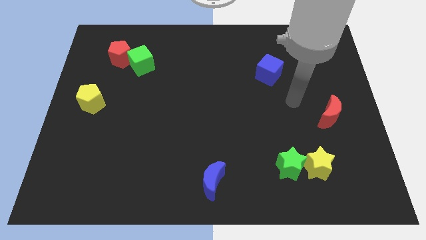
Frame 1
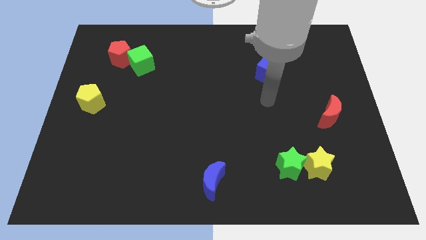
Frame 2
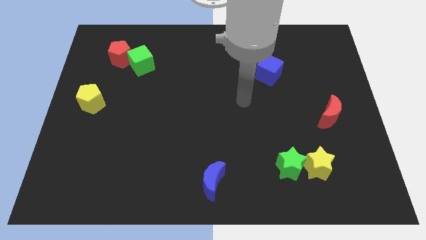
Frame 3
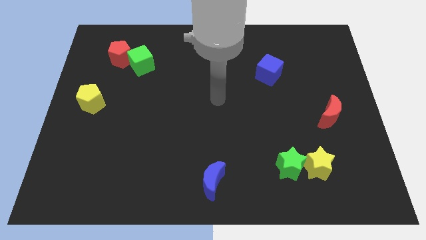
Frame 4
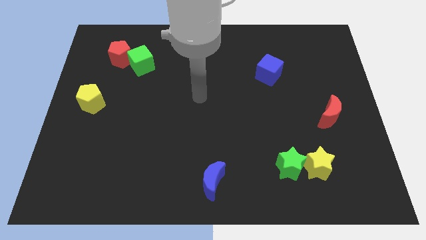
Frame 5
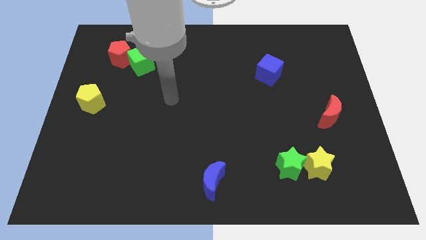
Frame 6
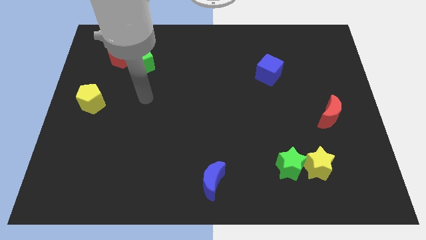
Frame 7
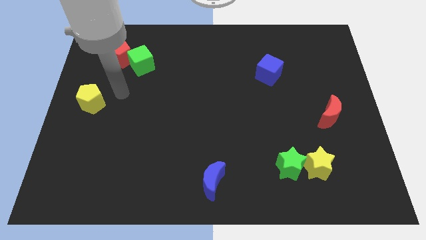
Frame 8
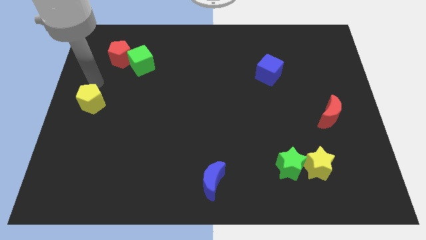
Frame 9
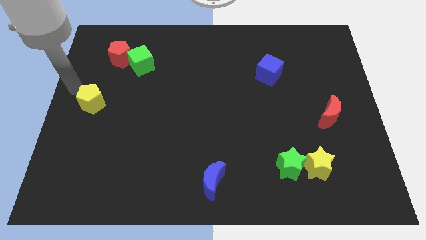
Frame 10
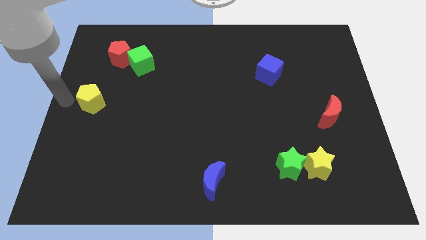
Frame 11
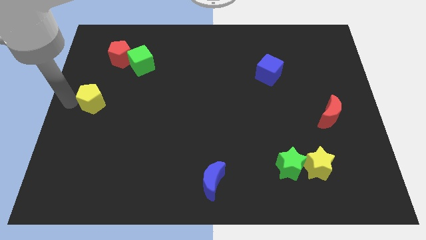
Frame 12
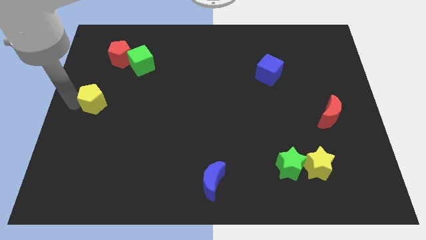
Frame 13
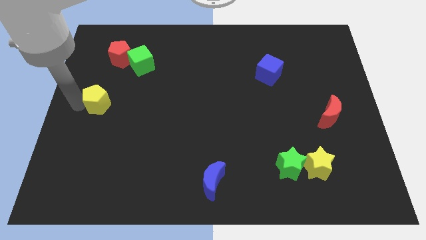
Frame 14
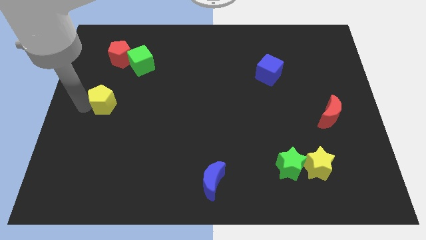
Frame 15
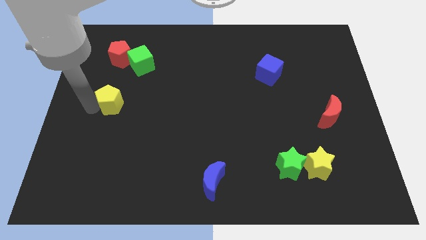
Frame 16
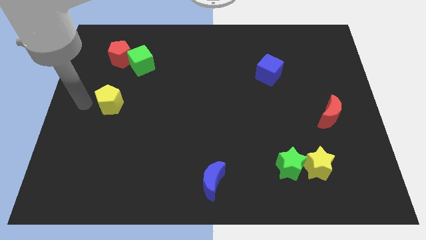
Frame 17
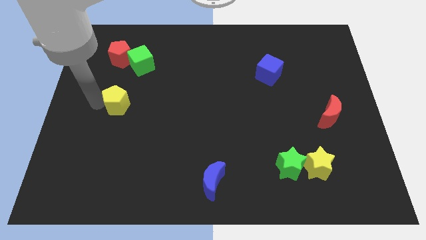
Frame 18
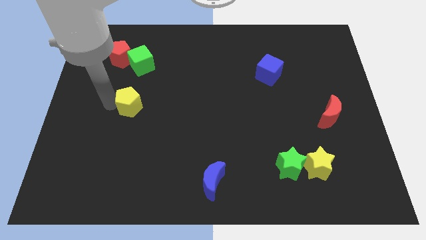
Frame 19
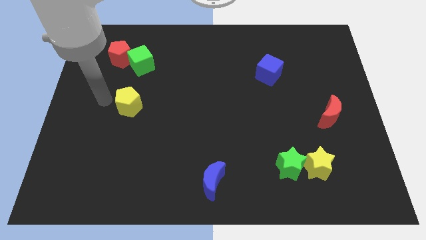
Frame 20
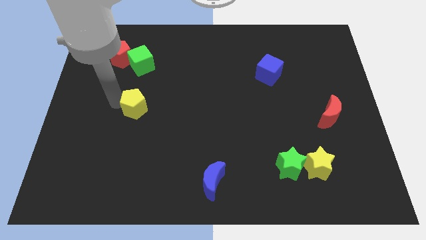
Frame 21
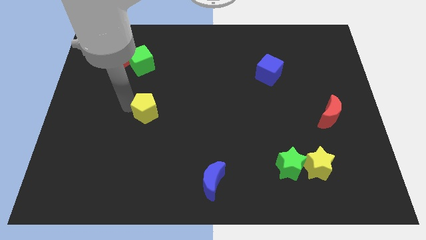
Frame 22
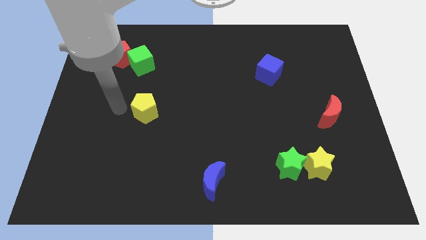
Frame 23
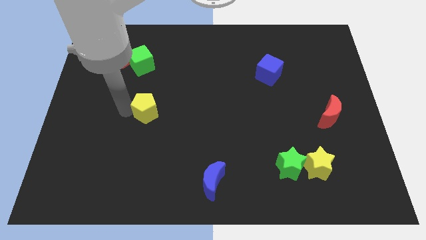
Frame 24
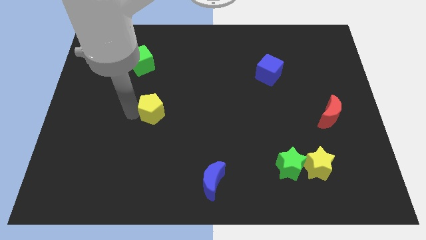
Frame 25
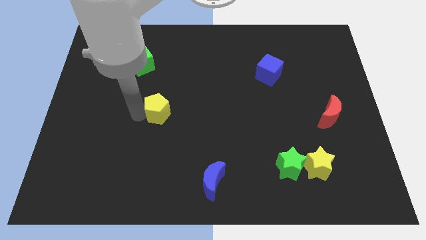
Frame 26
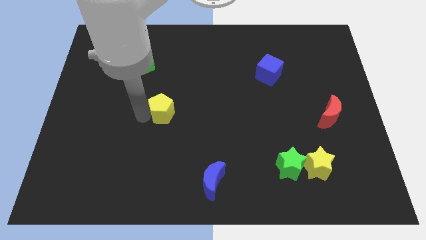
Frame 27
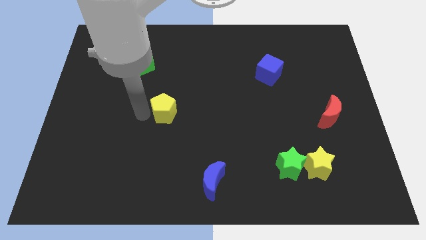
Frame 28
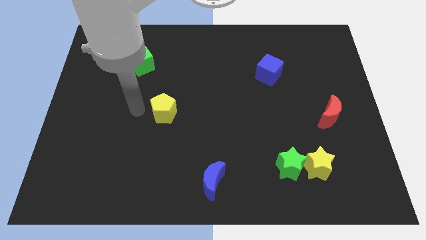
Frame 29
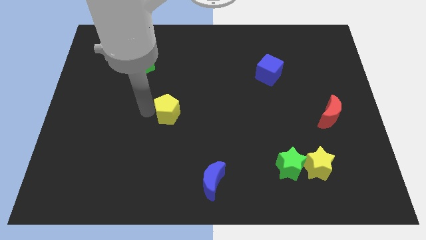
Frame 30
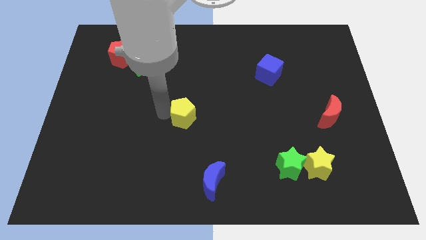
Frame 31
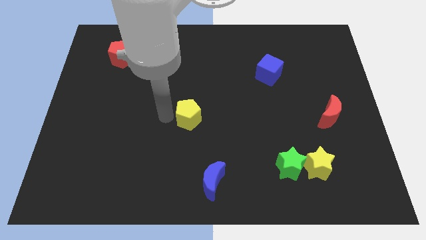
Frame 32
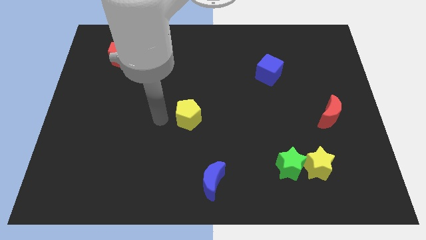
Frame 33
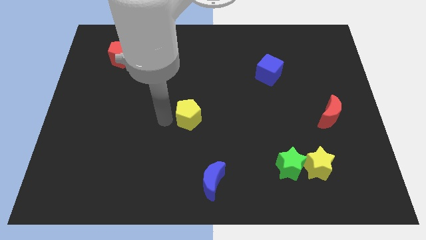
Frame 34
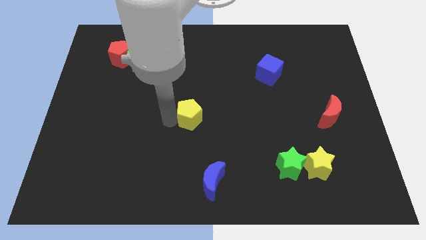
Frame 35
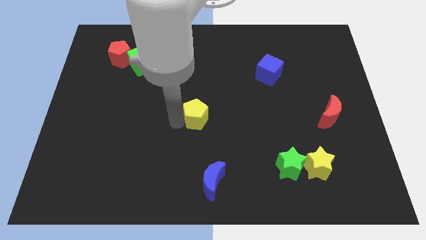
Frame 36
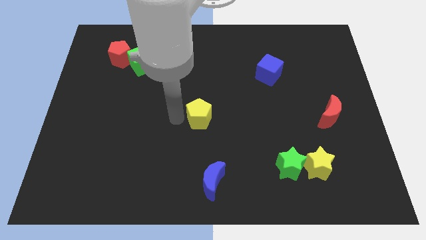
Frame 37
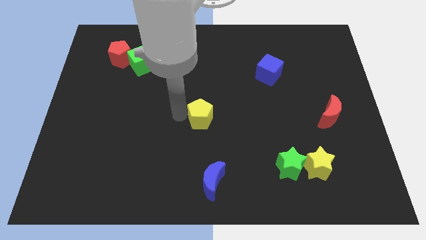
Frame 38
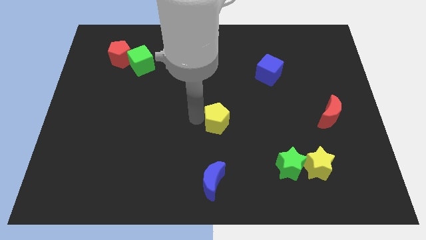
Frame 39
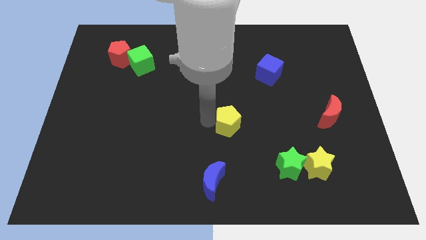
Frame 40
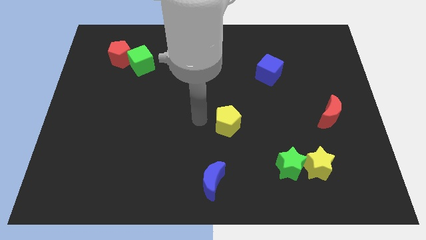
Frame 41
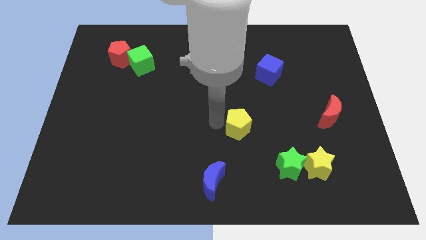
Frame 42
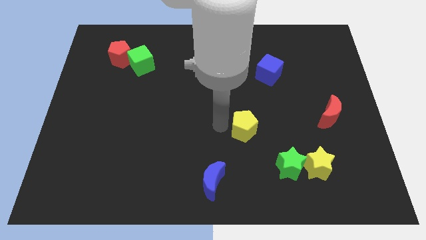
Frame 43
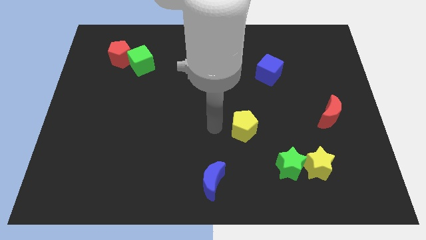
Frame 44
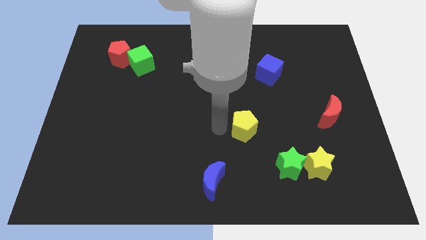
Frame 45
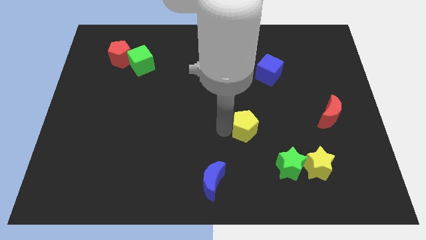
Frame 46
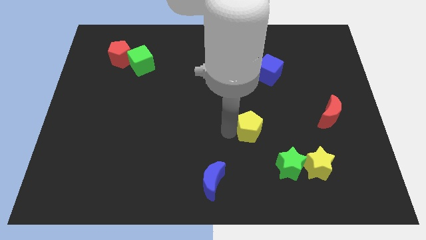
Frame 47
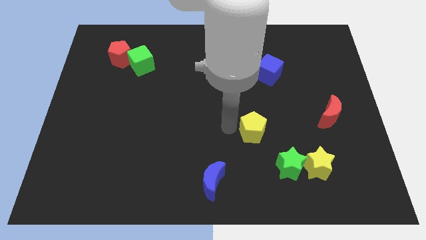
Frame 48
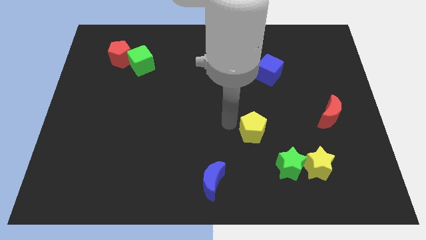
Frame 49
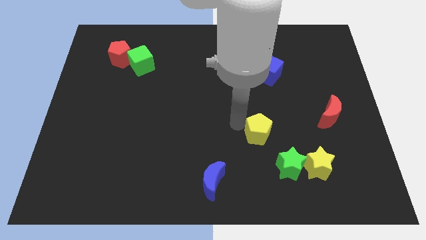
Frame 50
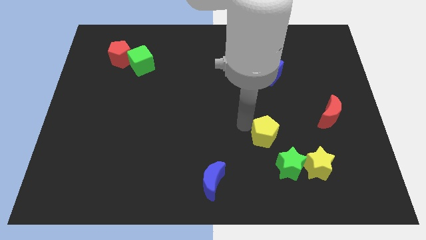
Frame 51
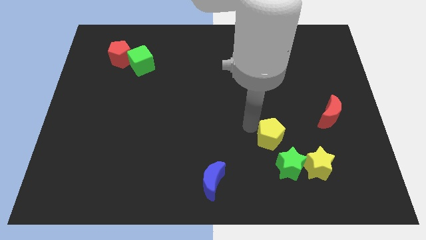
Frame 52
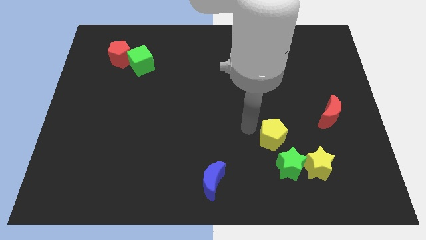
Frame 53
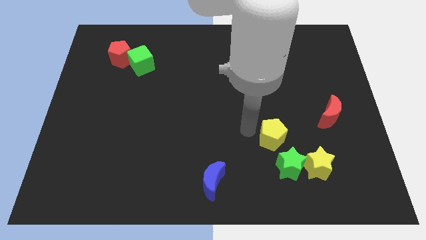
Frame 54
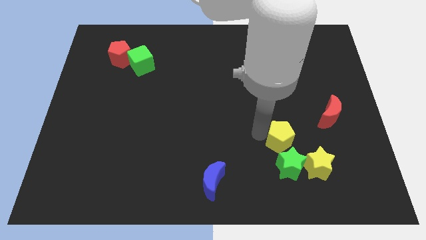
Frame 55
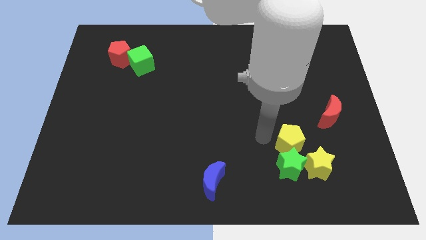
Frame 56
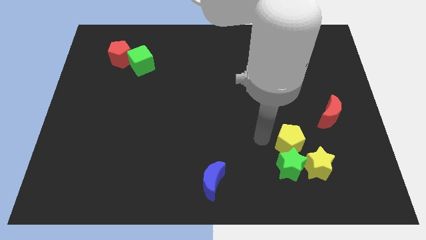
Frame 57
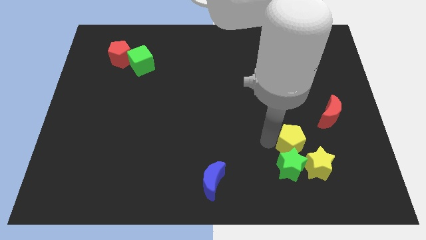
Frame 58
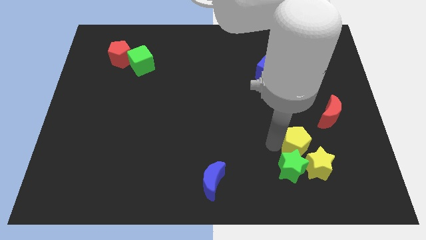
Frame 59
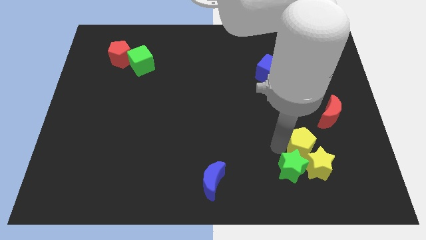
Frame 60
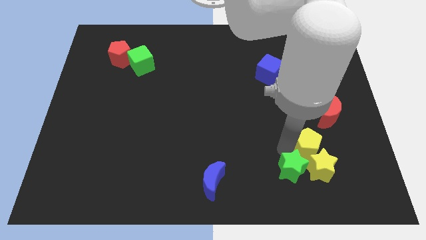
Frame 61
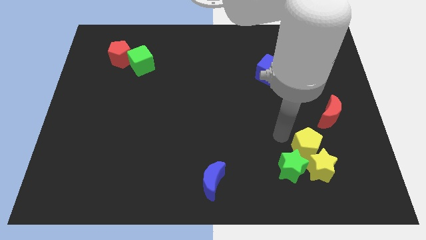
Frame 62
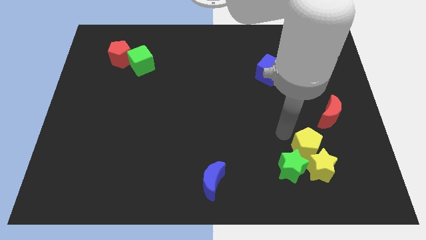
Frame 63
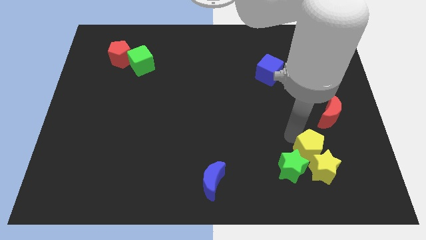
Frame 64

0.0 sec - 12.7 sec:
move the yellow pentagon just right of the green star

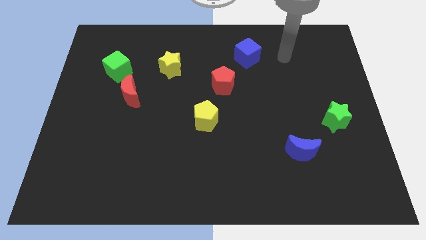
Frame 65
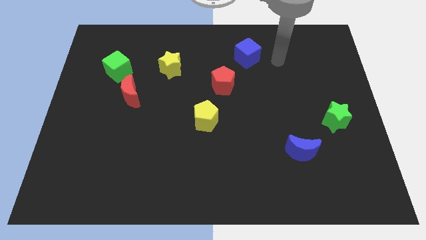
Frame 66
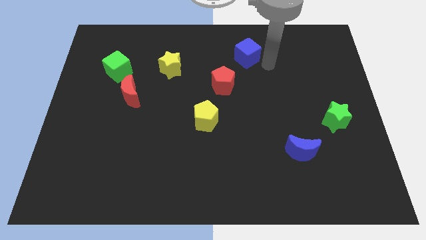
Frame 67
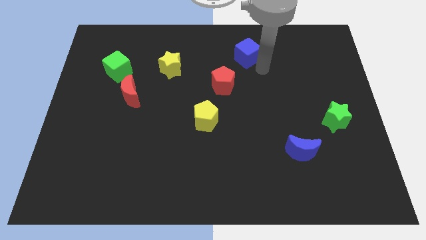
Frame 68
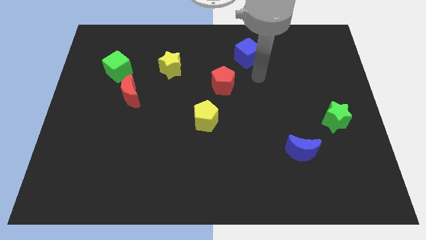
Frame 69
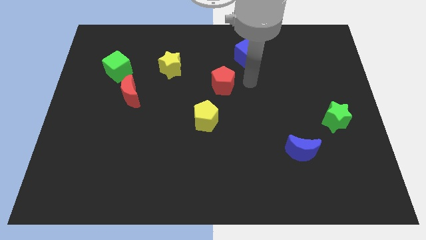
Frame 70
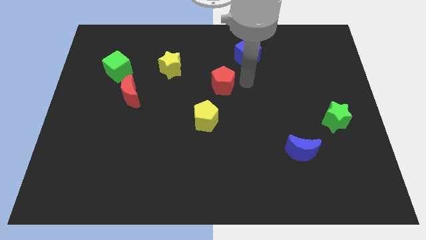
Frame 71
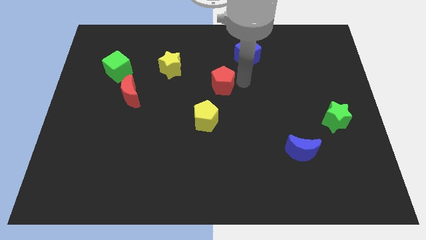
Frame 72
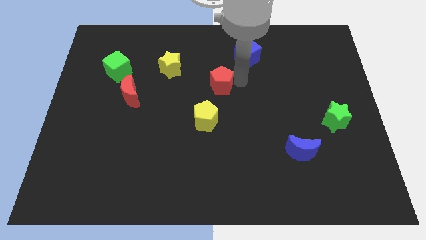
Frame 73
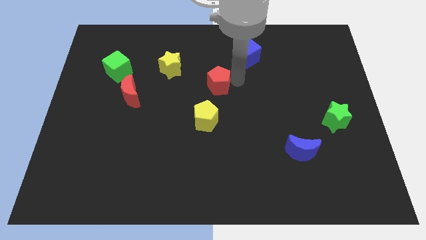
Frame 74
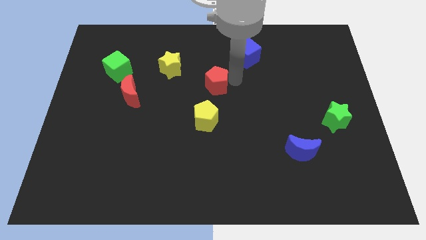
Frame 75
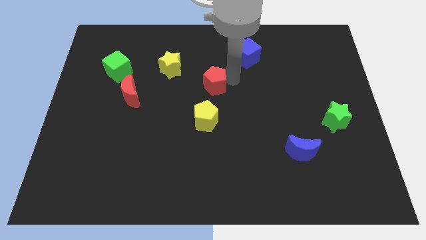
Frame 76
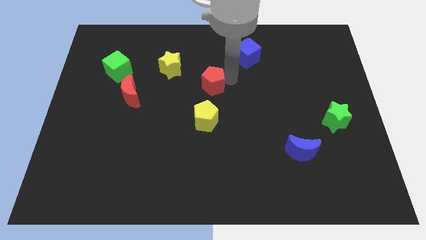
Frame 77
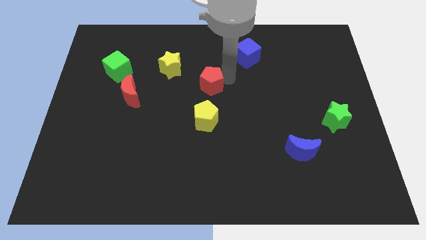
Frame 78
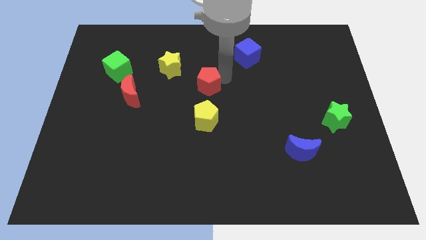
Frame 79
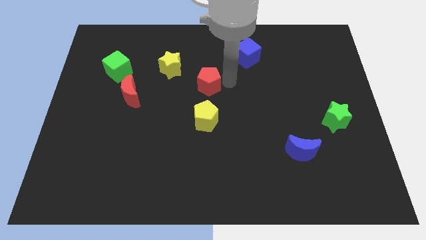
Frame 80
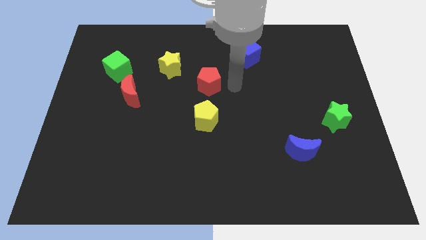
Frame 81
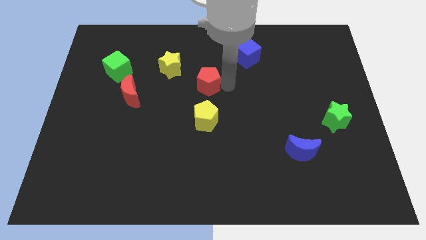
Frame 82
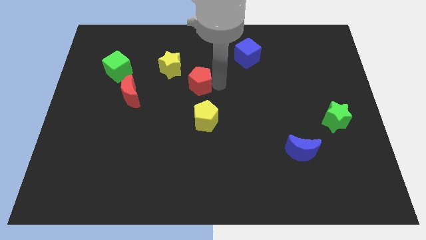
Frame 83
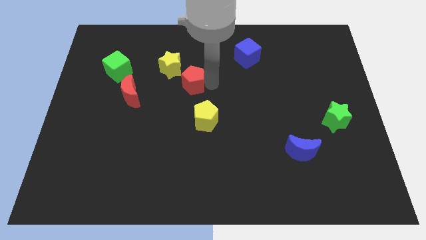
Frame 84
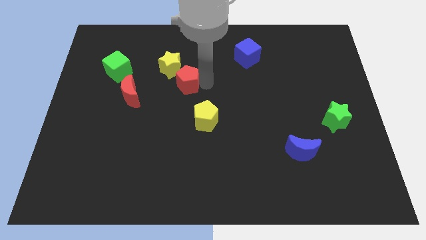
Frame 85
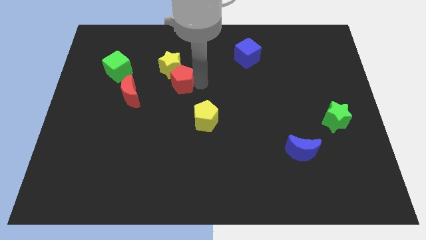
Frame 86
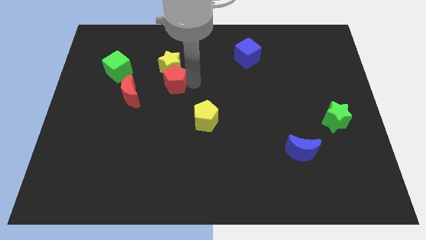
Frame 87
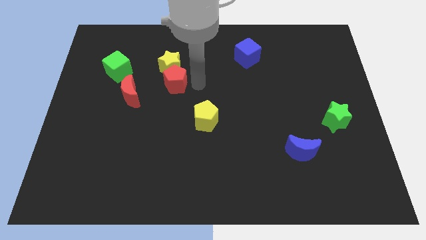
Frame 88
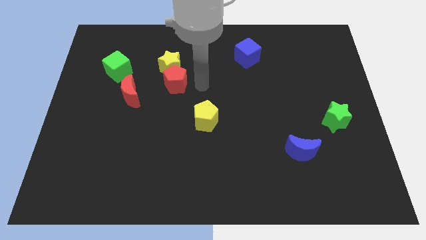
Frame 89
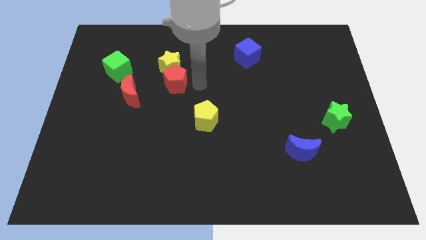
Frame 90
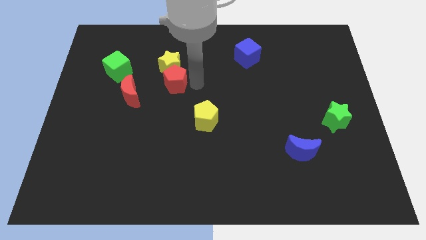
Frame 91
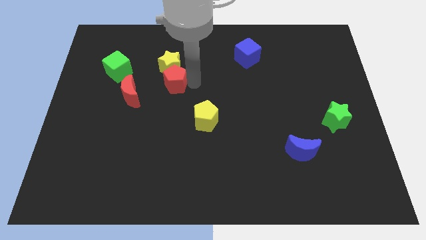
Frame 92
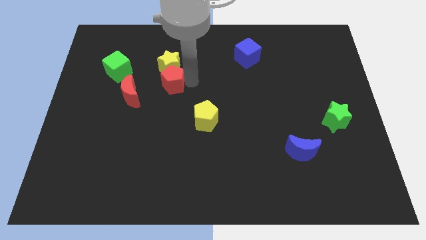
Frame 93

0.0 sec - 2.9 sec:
push the red pentagon diagonally up and to the right of the red moon
